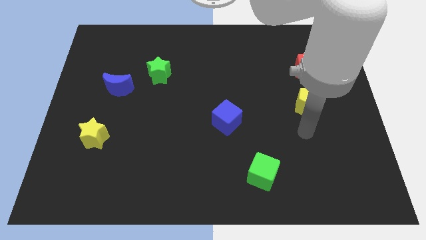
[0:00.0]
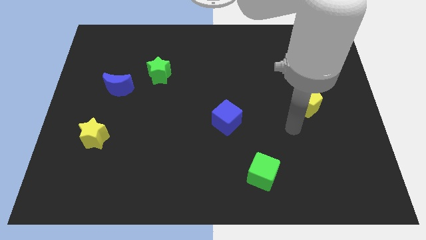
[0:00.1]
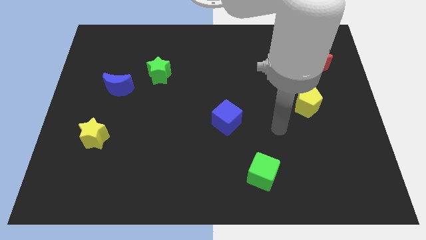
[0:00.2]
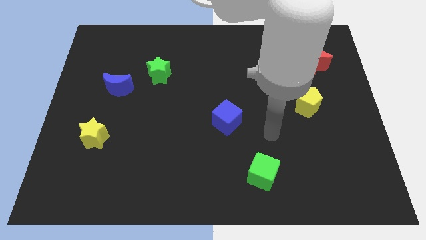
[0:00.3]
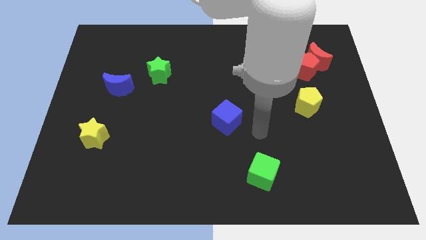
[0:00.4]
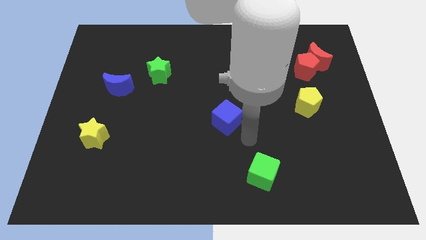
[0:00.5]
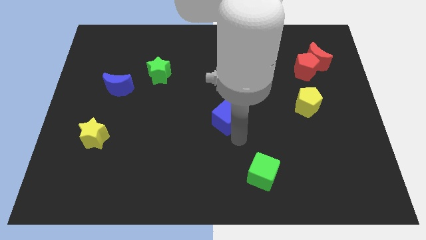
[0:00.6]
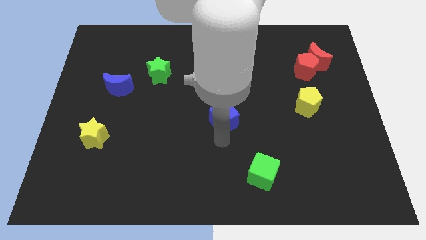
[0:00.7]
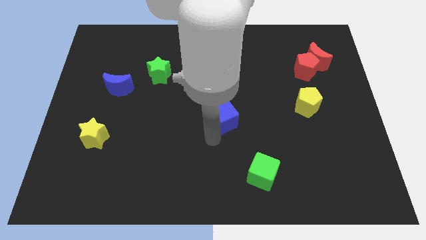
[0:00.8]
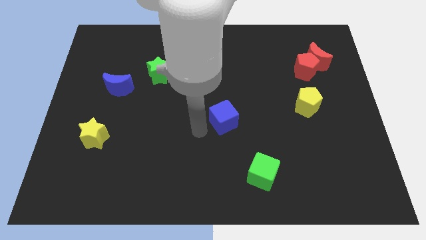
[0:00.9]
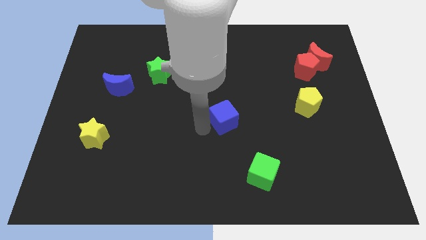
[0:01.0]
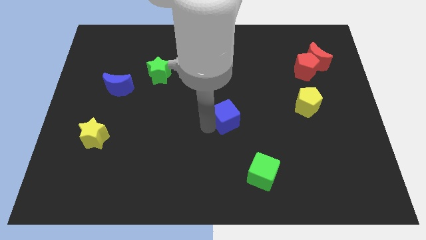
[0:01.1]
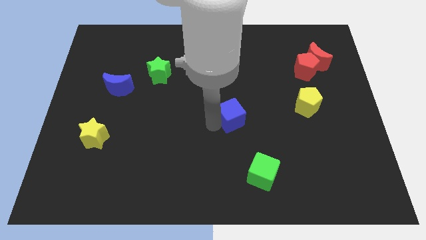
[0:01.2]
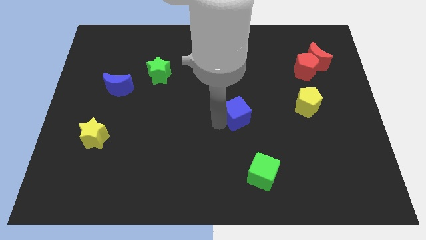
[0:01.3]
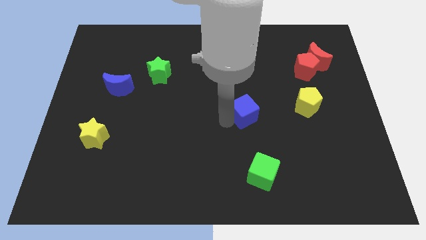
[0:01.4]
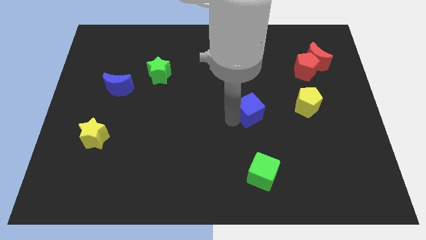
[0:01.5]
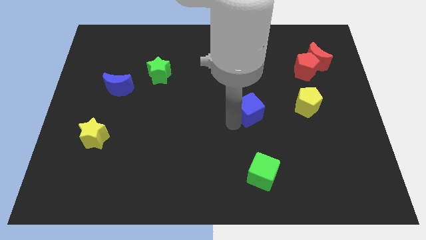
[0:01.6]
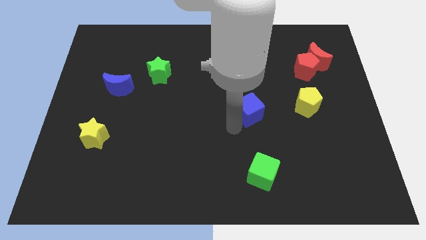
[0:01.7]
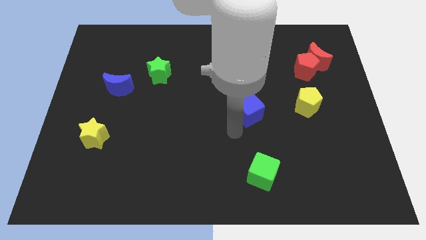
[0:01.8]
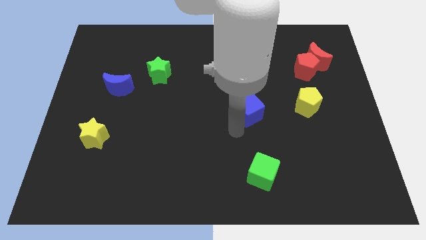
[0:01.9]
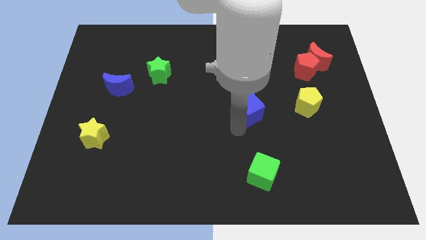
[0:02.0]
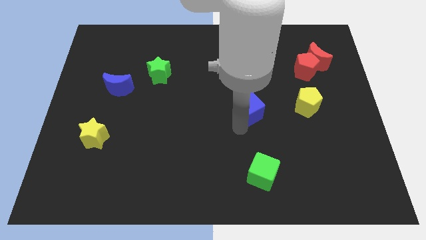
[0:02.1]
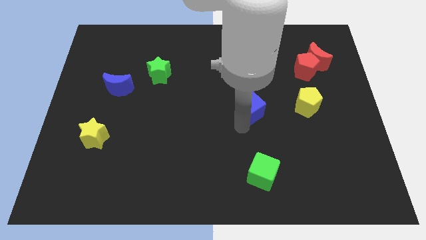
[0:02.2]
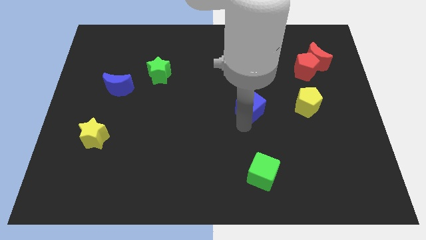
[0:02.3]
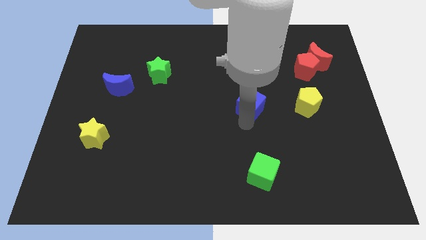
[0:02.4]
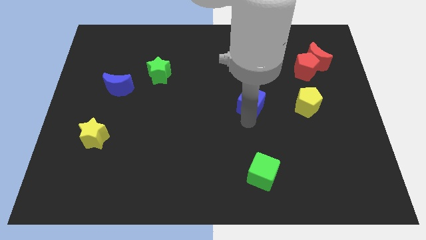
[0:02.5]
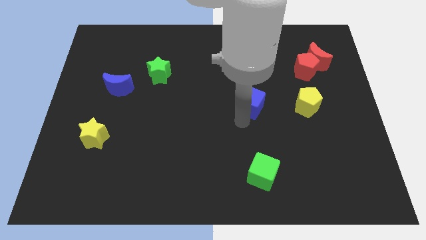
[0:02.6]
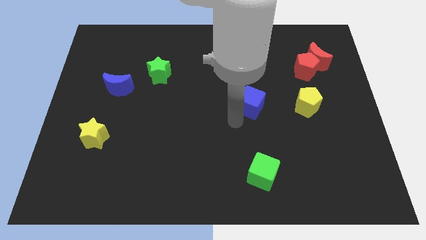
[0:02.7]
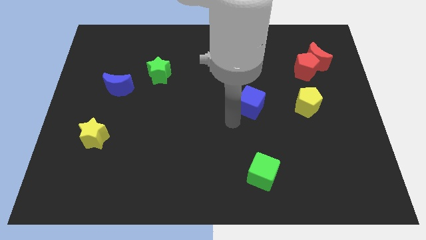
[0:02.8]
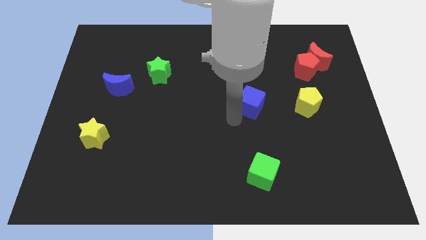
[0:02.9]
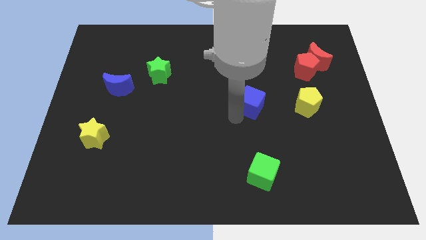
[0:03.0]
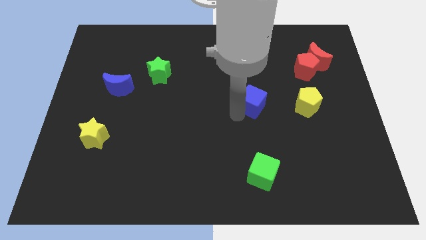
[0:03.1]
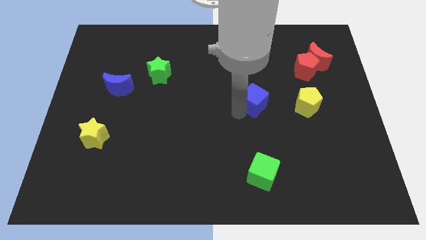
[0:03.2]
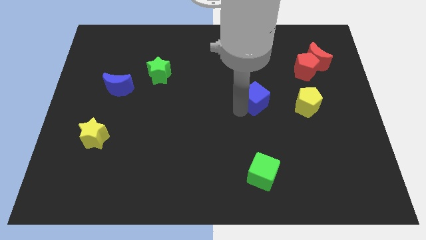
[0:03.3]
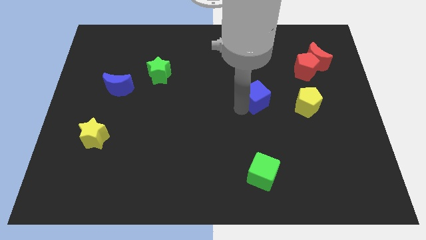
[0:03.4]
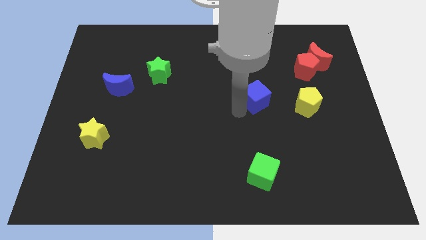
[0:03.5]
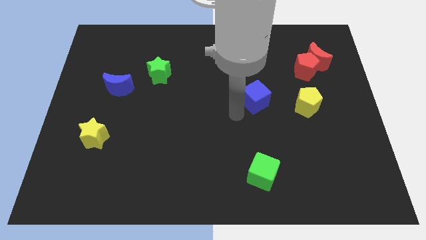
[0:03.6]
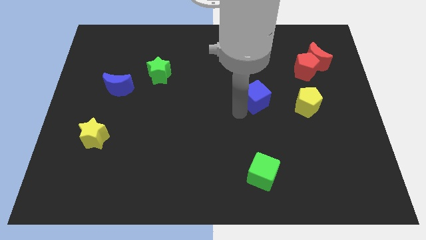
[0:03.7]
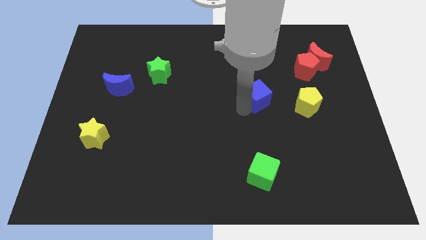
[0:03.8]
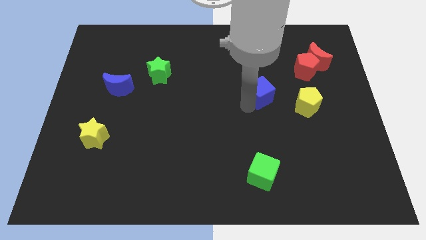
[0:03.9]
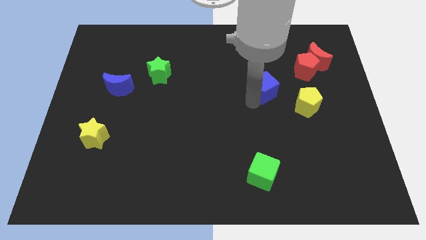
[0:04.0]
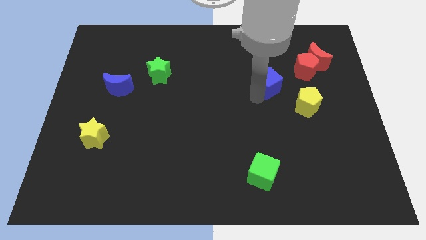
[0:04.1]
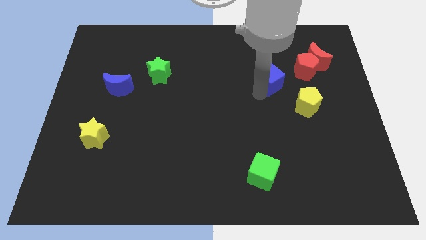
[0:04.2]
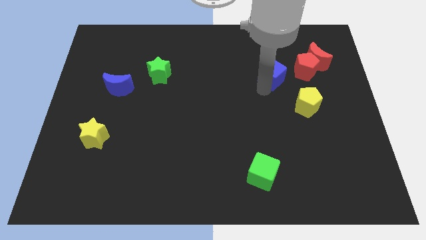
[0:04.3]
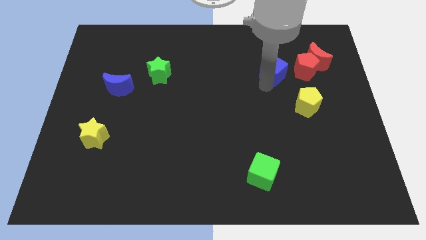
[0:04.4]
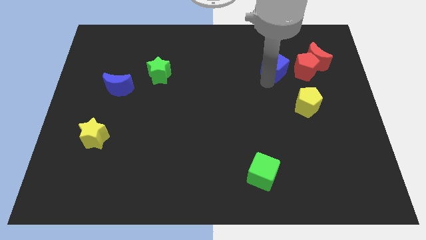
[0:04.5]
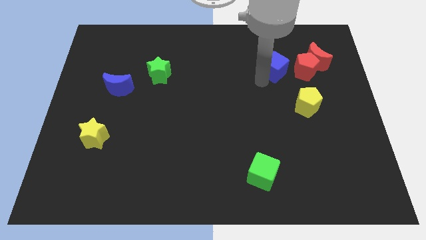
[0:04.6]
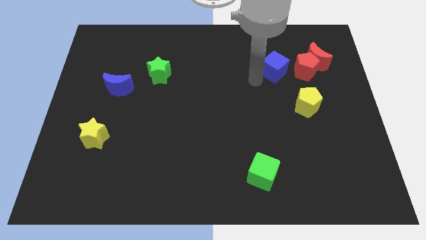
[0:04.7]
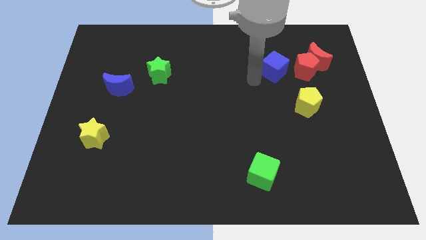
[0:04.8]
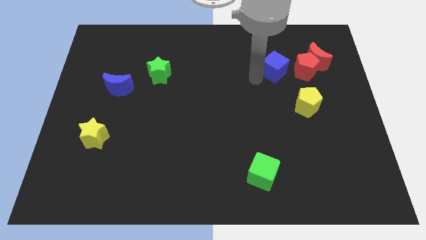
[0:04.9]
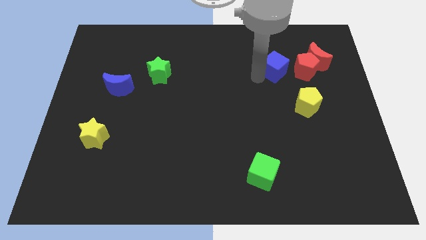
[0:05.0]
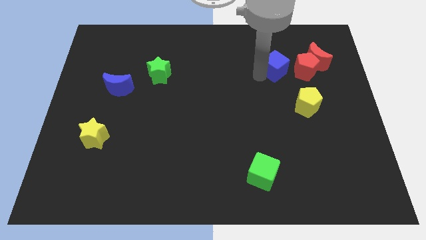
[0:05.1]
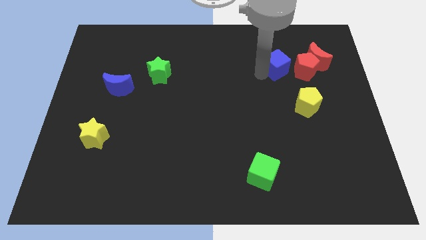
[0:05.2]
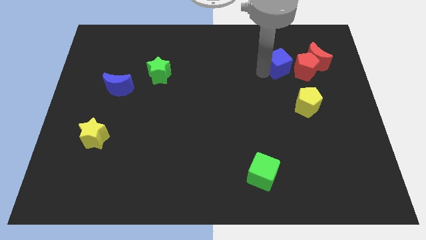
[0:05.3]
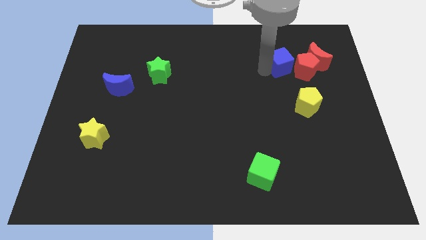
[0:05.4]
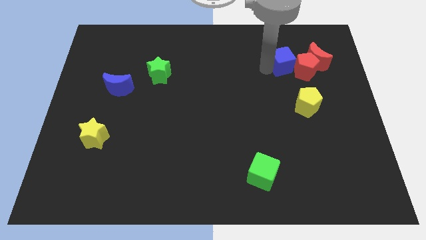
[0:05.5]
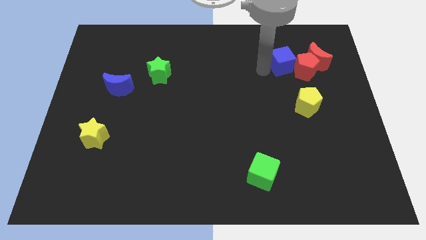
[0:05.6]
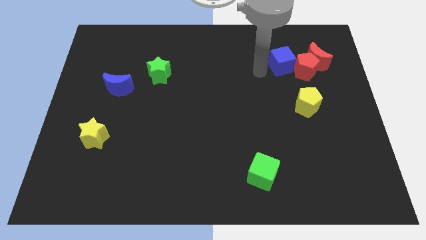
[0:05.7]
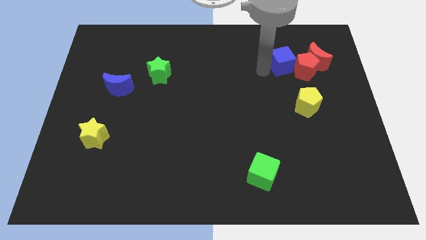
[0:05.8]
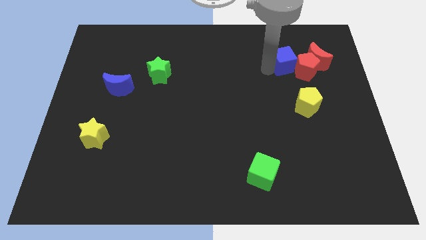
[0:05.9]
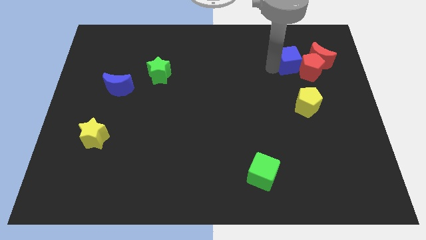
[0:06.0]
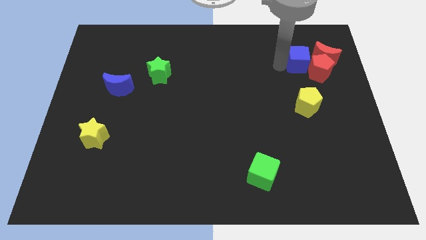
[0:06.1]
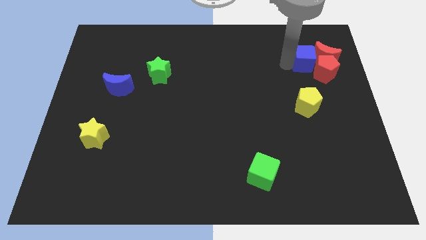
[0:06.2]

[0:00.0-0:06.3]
put the blue cube to the red moon

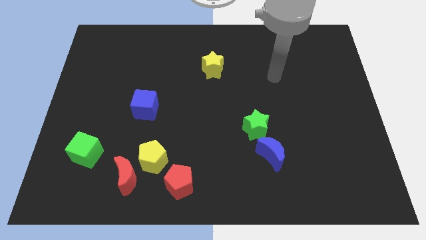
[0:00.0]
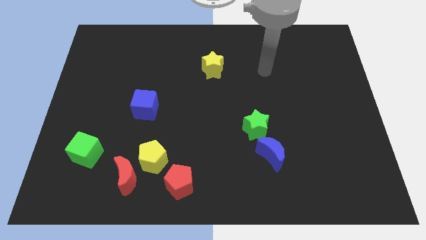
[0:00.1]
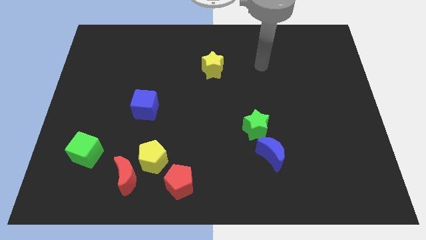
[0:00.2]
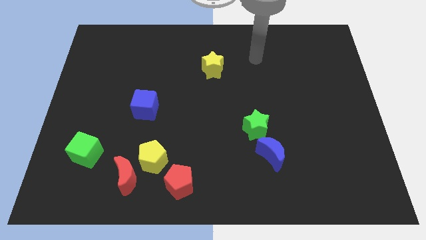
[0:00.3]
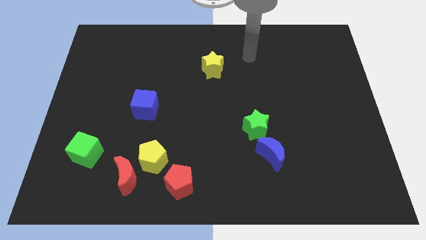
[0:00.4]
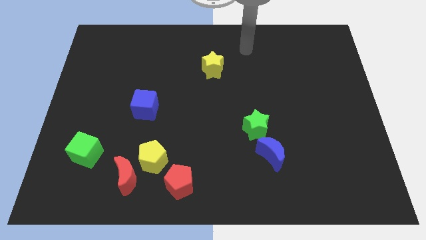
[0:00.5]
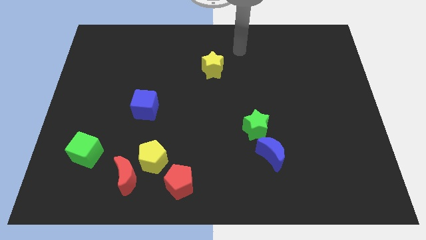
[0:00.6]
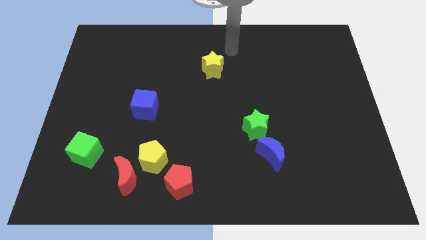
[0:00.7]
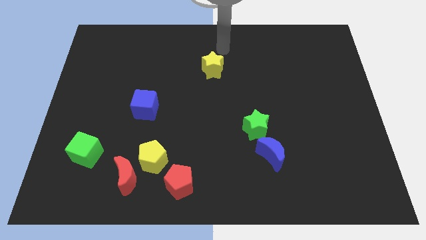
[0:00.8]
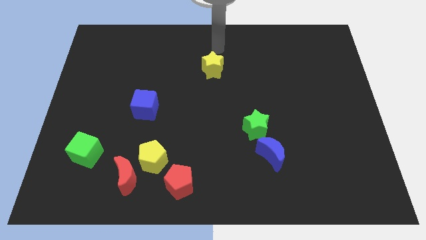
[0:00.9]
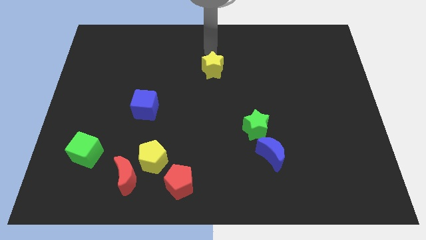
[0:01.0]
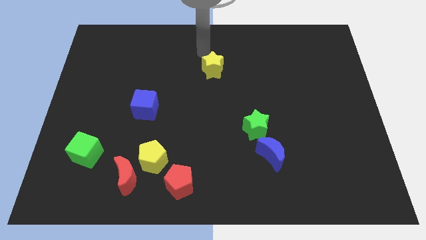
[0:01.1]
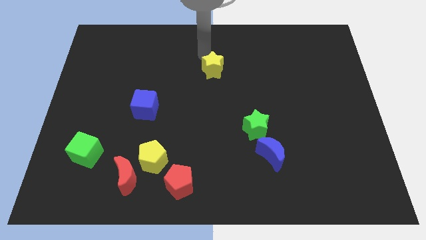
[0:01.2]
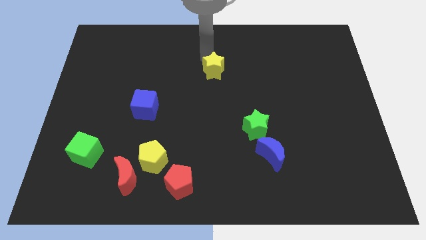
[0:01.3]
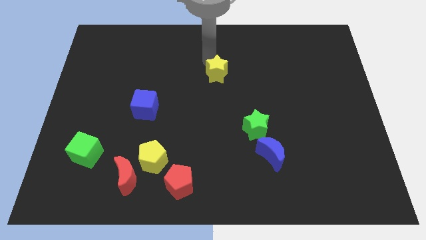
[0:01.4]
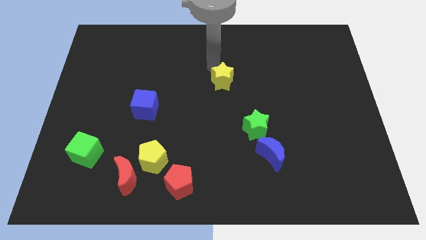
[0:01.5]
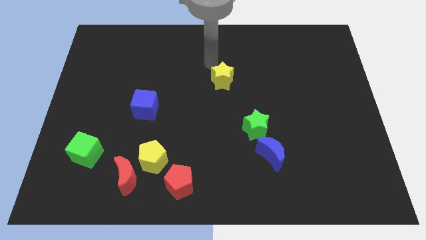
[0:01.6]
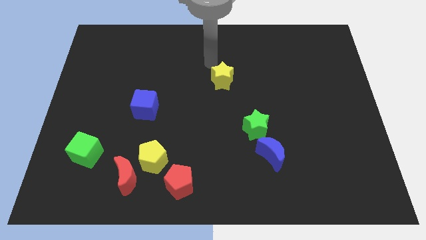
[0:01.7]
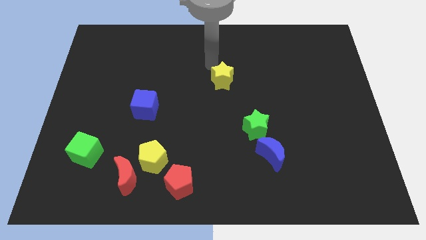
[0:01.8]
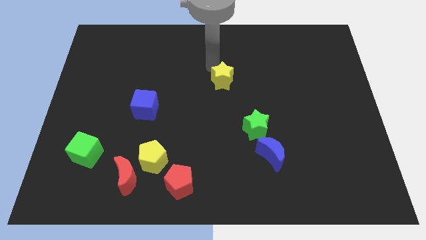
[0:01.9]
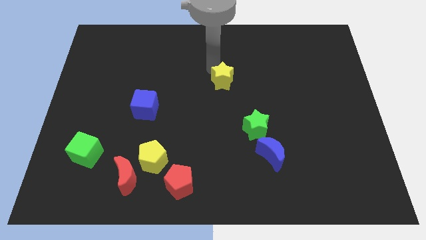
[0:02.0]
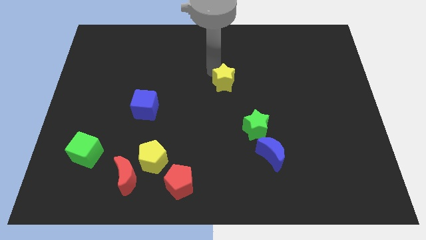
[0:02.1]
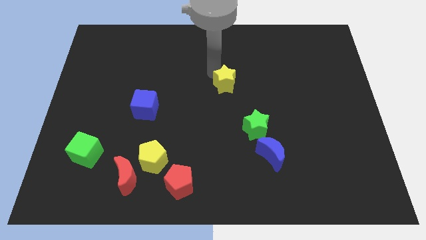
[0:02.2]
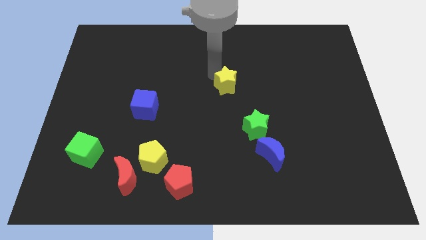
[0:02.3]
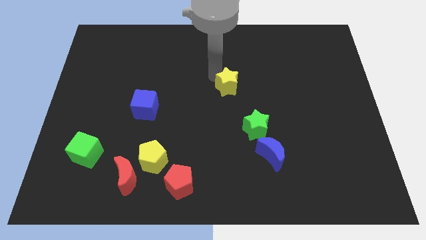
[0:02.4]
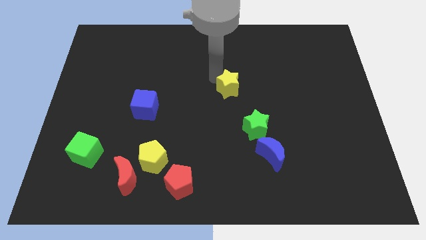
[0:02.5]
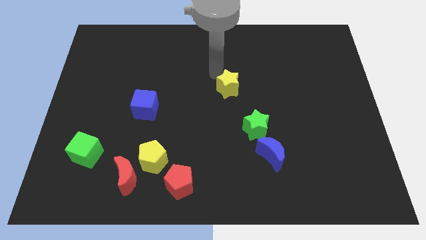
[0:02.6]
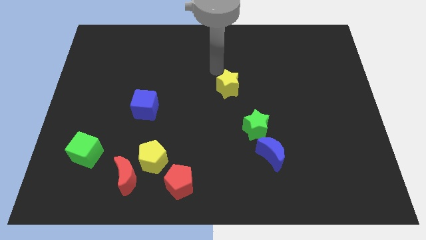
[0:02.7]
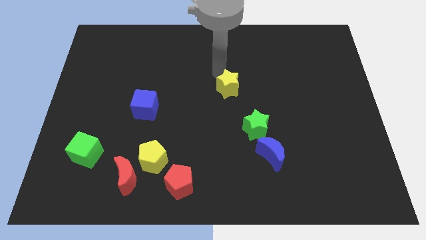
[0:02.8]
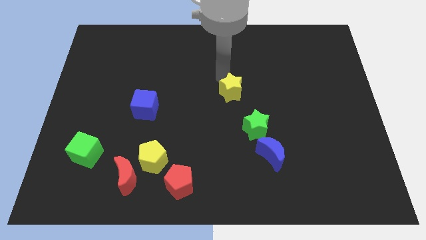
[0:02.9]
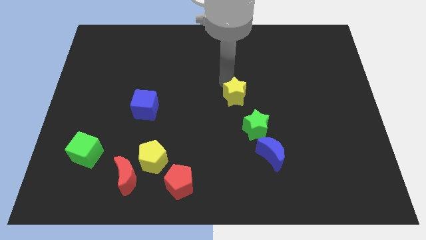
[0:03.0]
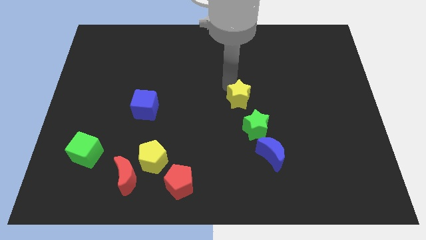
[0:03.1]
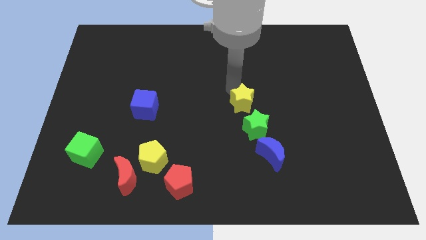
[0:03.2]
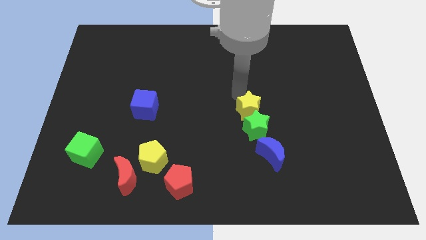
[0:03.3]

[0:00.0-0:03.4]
move the yellow star next to the green star
